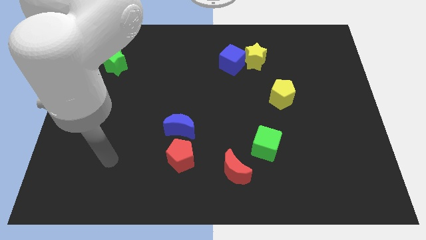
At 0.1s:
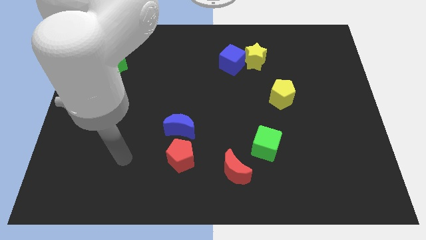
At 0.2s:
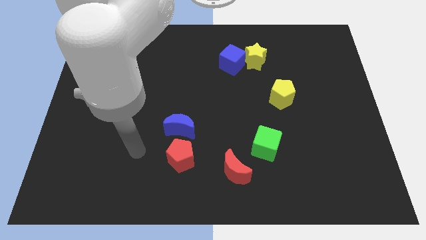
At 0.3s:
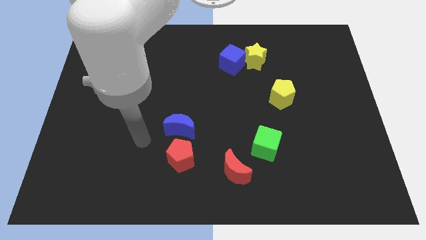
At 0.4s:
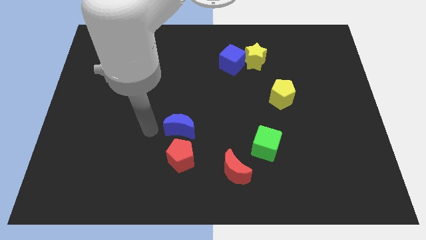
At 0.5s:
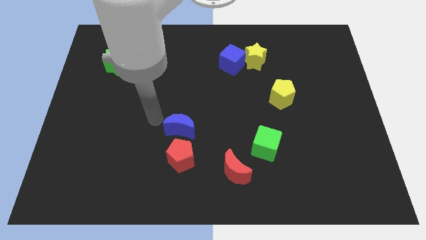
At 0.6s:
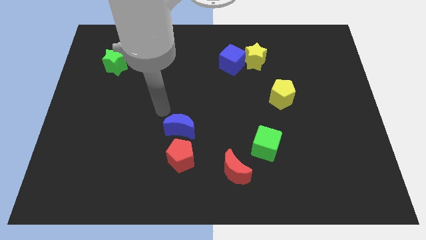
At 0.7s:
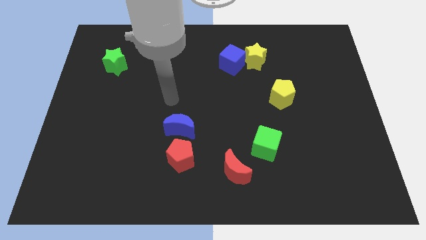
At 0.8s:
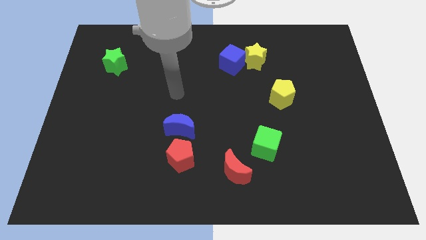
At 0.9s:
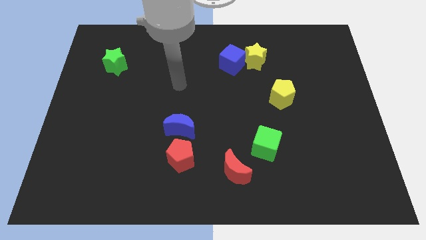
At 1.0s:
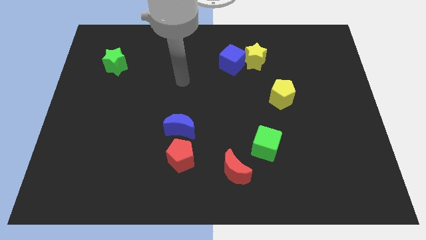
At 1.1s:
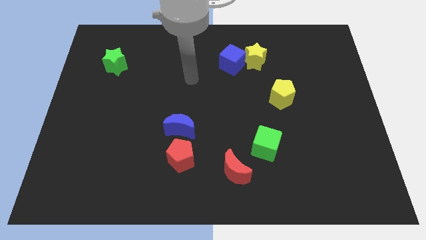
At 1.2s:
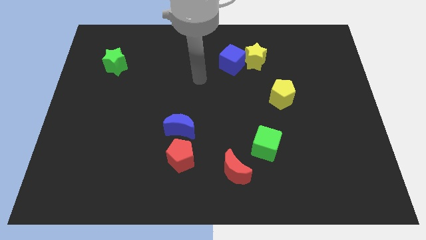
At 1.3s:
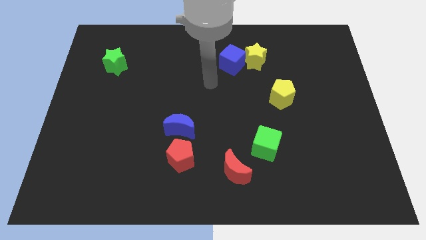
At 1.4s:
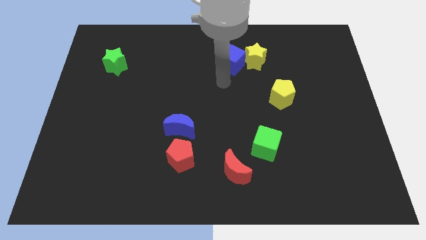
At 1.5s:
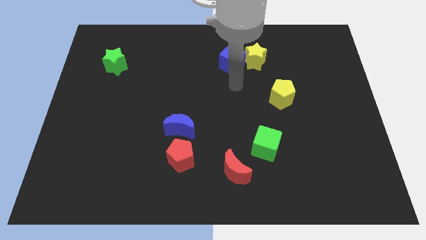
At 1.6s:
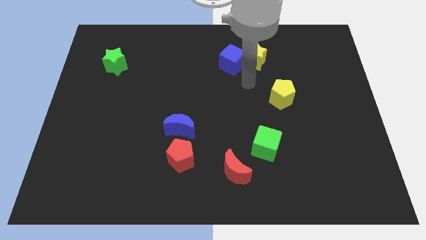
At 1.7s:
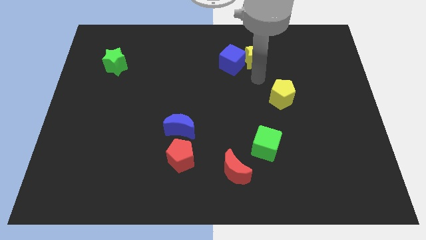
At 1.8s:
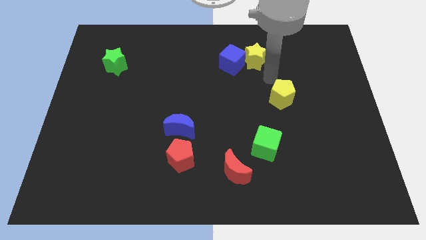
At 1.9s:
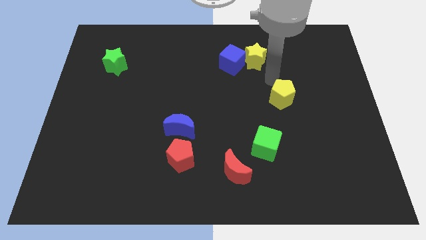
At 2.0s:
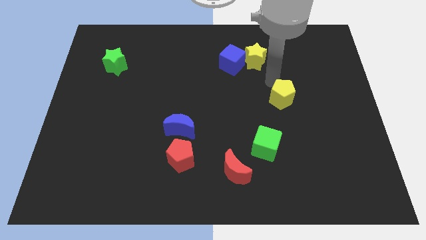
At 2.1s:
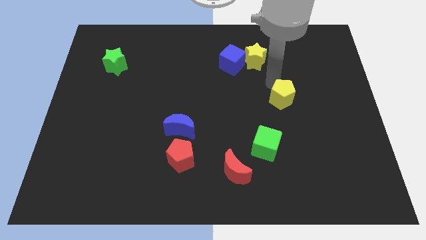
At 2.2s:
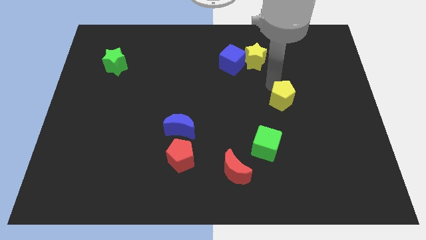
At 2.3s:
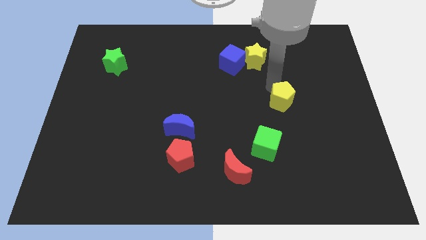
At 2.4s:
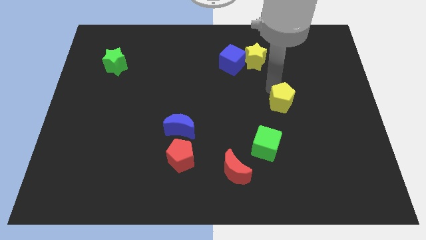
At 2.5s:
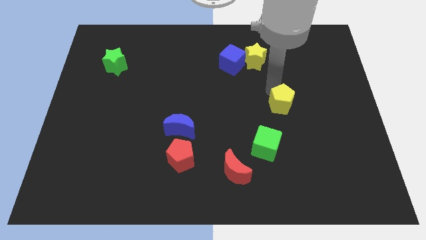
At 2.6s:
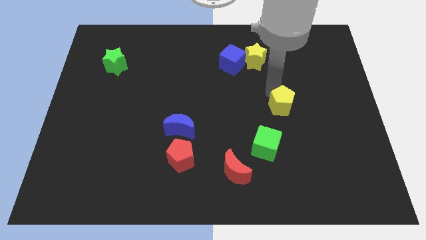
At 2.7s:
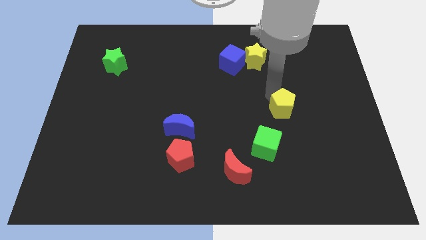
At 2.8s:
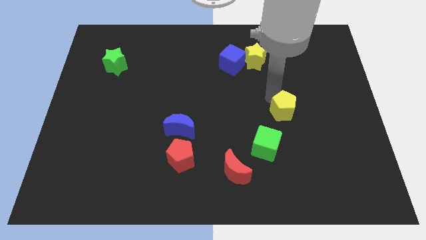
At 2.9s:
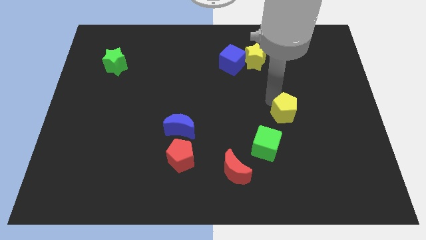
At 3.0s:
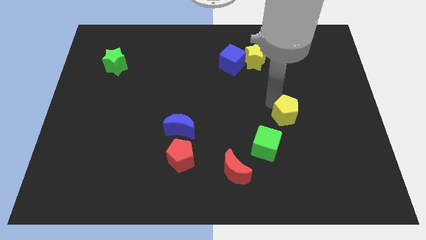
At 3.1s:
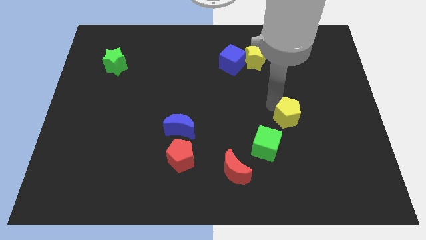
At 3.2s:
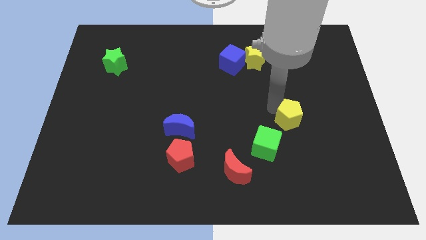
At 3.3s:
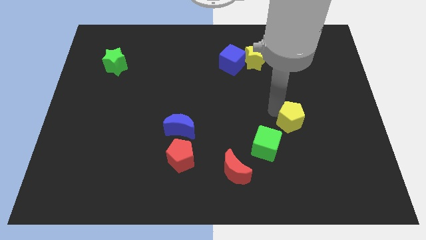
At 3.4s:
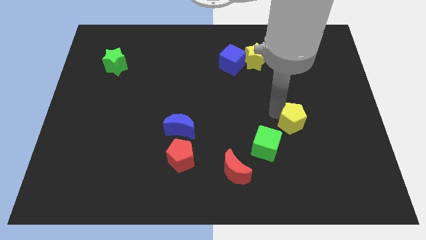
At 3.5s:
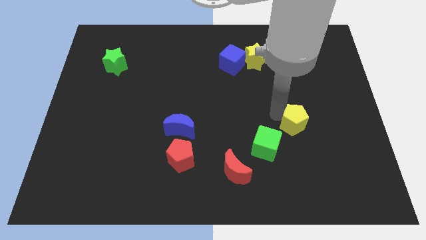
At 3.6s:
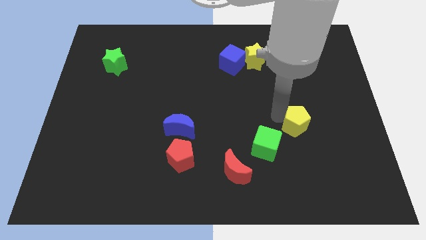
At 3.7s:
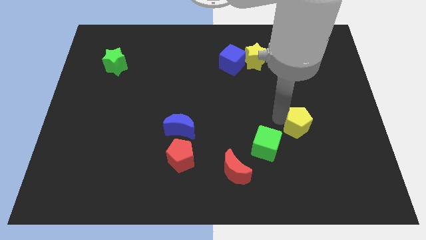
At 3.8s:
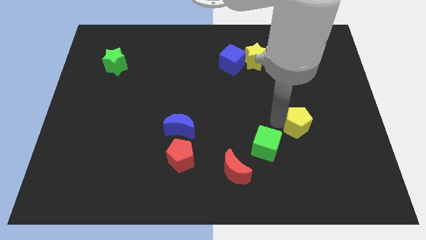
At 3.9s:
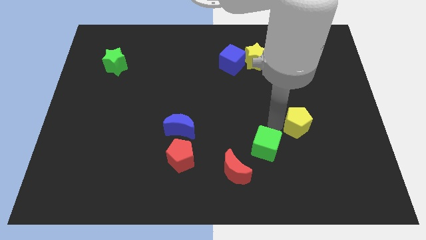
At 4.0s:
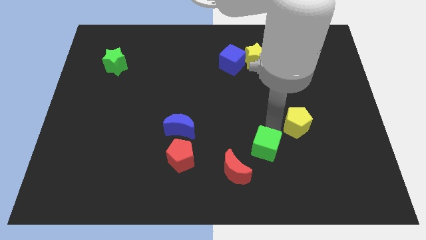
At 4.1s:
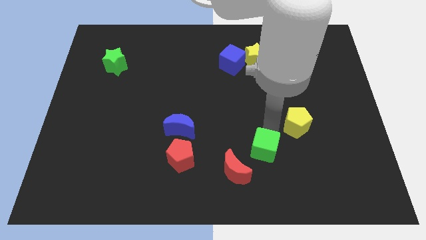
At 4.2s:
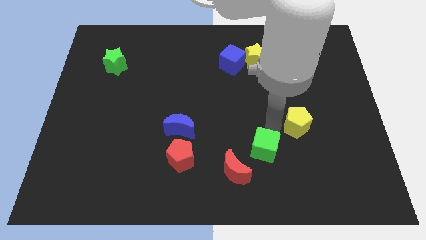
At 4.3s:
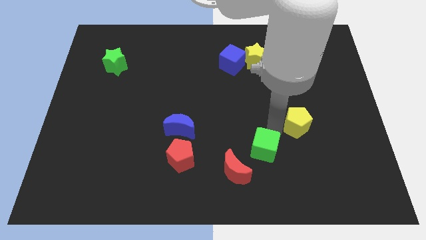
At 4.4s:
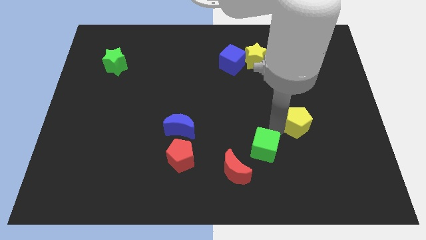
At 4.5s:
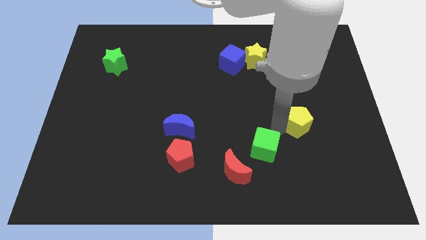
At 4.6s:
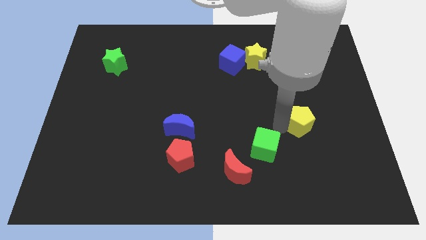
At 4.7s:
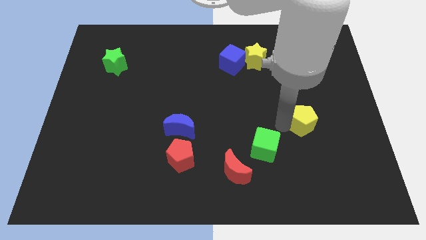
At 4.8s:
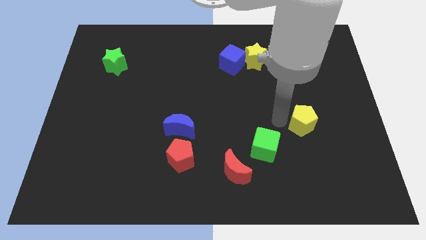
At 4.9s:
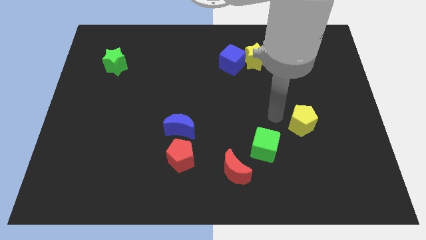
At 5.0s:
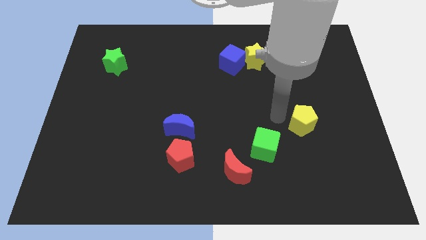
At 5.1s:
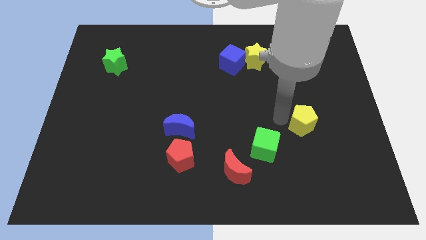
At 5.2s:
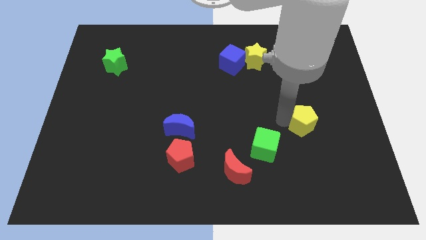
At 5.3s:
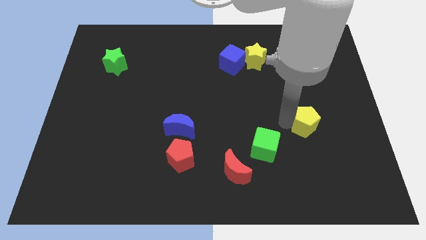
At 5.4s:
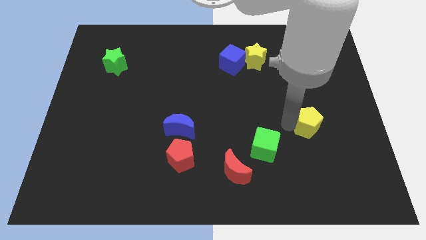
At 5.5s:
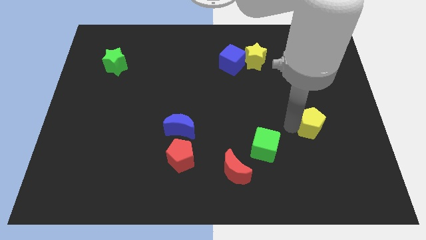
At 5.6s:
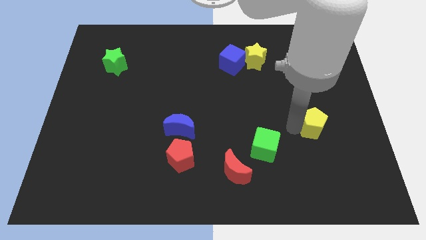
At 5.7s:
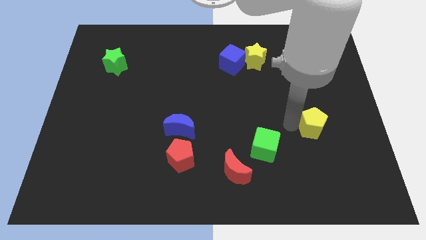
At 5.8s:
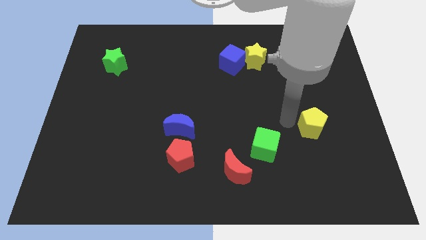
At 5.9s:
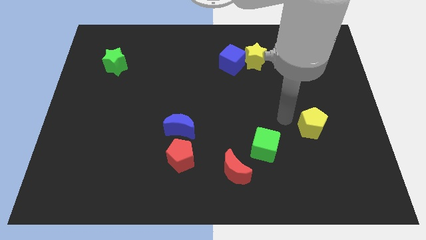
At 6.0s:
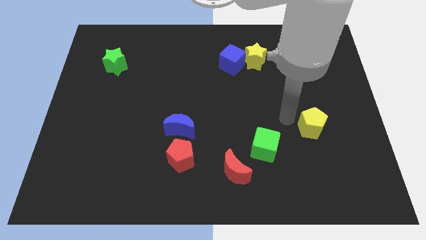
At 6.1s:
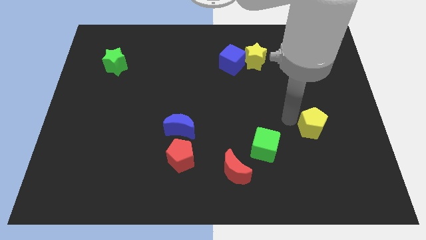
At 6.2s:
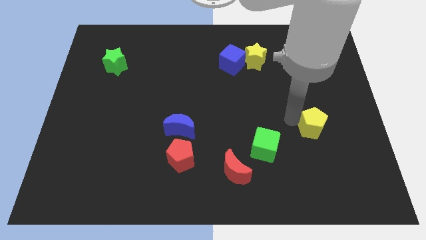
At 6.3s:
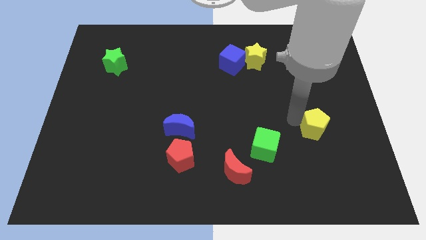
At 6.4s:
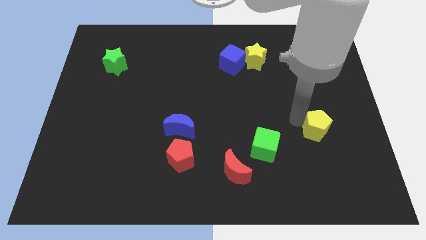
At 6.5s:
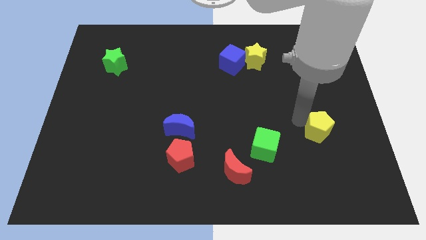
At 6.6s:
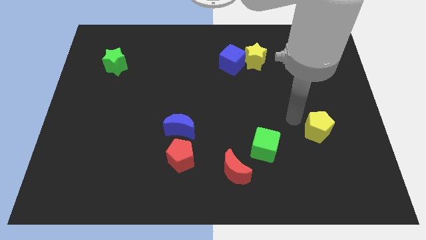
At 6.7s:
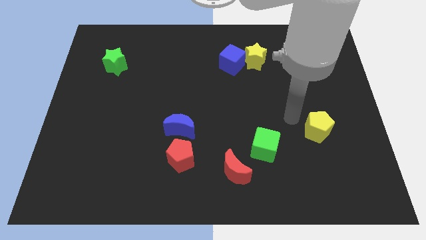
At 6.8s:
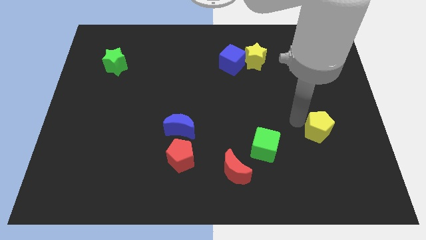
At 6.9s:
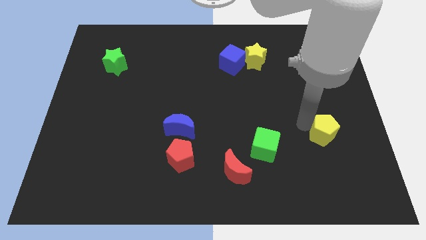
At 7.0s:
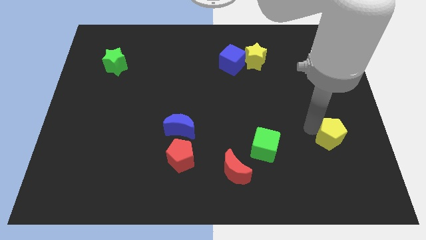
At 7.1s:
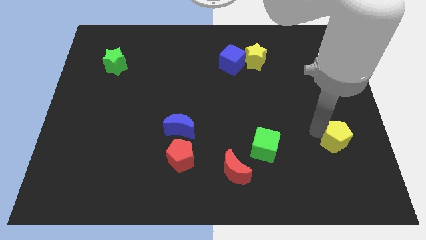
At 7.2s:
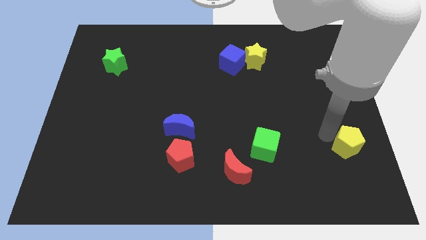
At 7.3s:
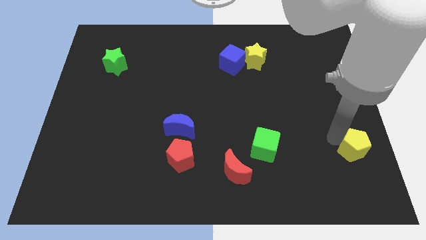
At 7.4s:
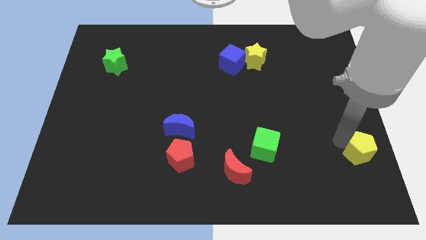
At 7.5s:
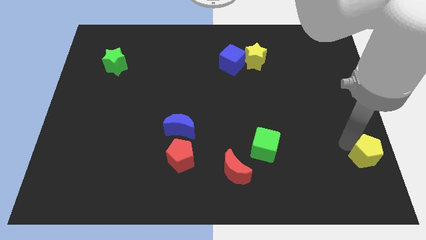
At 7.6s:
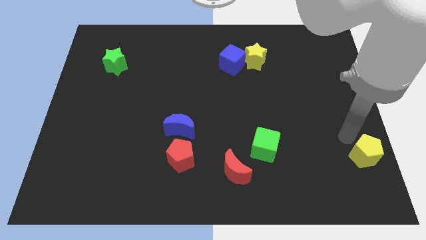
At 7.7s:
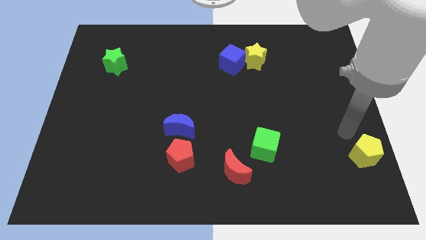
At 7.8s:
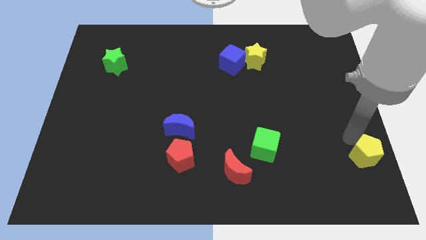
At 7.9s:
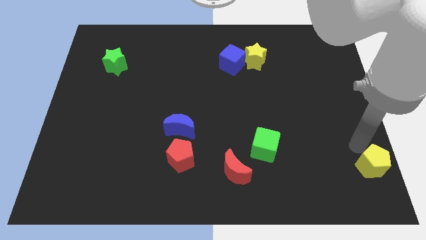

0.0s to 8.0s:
put the yellow pentagon to the bottom right of the board
